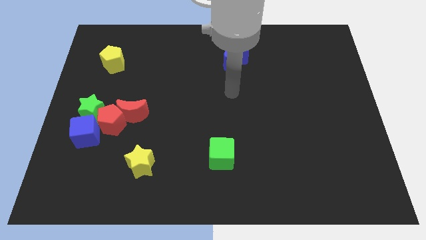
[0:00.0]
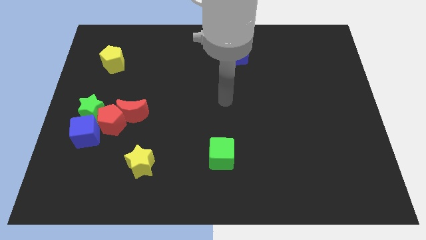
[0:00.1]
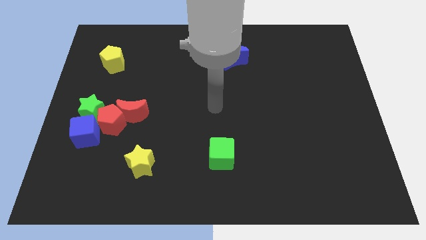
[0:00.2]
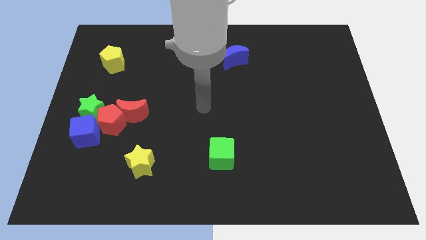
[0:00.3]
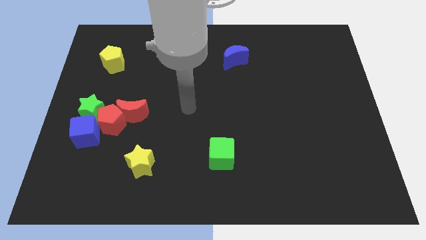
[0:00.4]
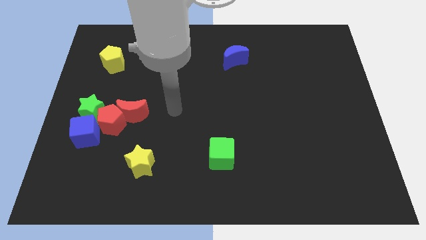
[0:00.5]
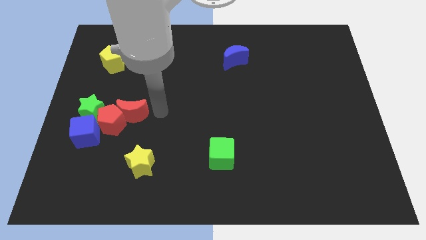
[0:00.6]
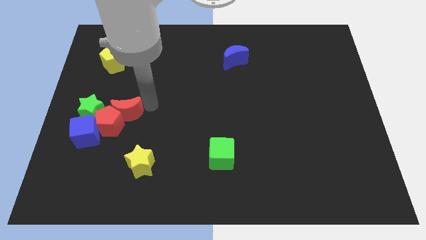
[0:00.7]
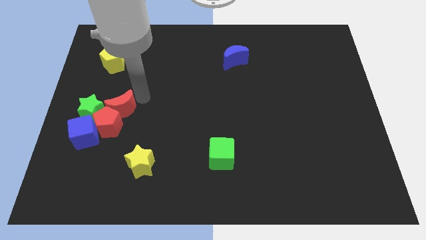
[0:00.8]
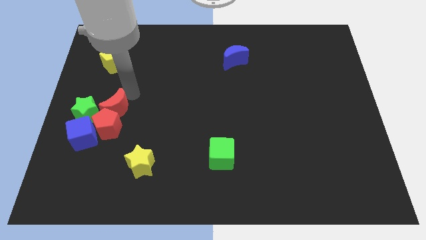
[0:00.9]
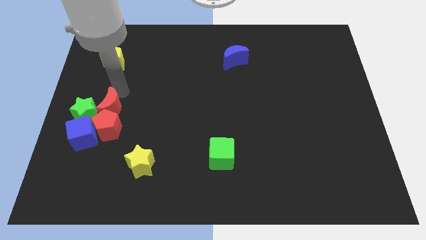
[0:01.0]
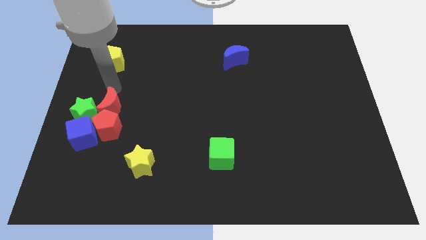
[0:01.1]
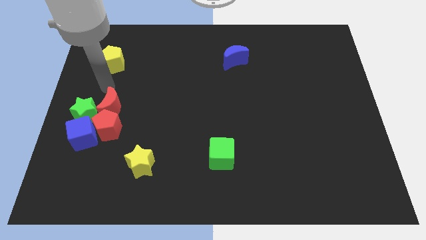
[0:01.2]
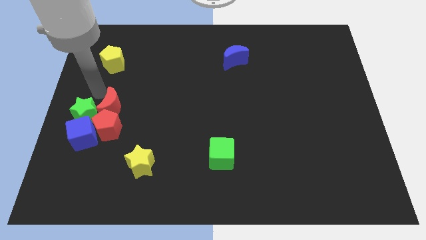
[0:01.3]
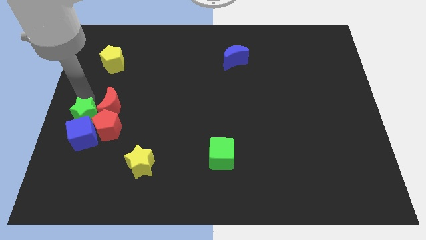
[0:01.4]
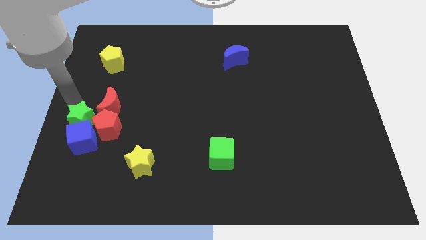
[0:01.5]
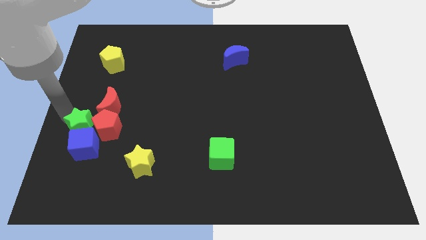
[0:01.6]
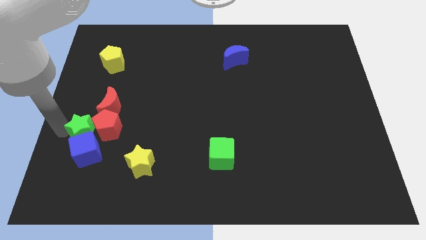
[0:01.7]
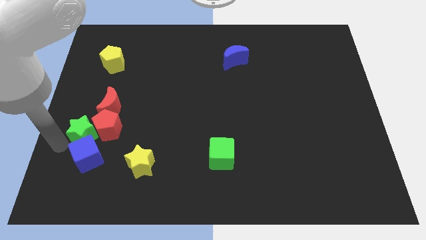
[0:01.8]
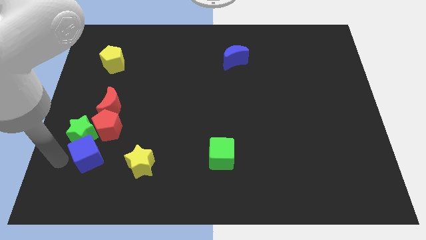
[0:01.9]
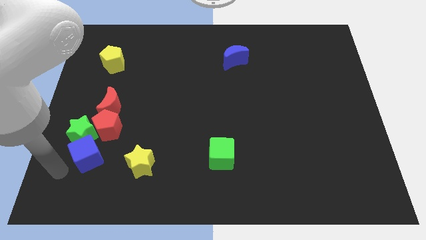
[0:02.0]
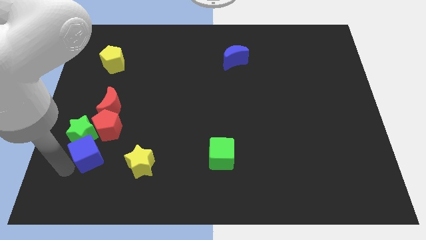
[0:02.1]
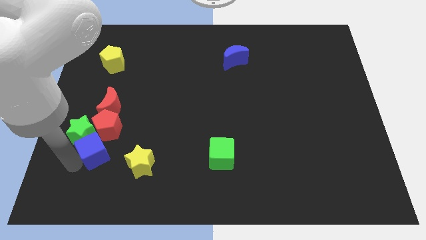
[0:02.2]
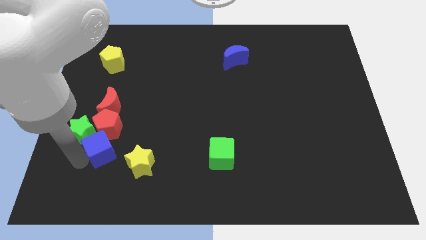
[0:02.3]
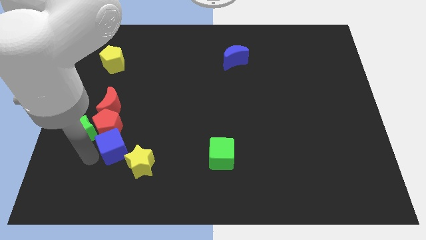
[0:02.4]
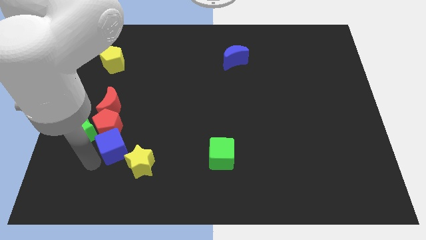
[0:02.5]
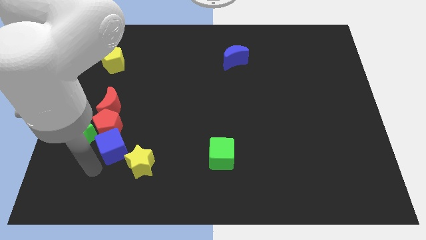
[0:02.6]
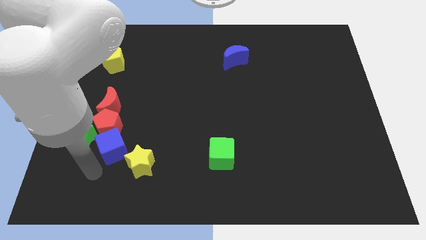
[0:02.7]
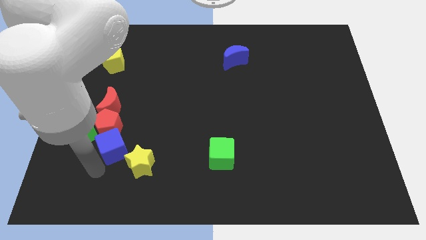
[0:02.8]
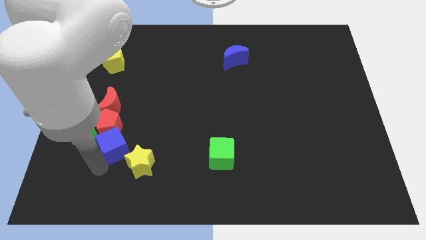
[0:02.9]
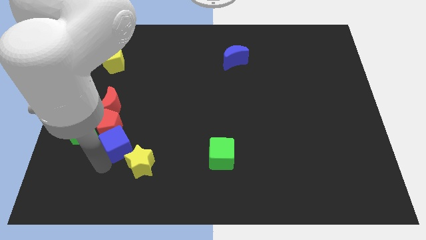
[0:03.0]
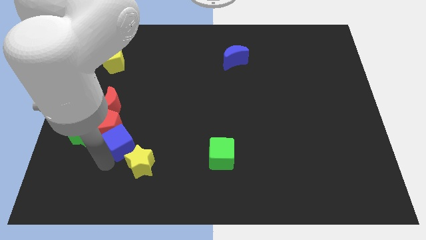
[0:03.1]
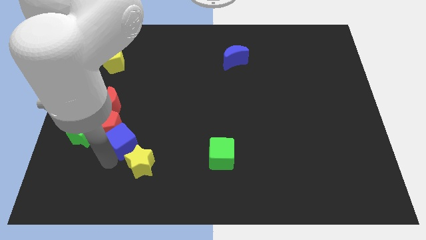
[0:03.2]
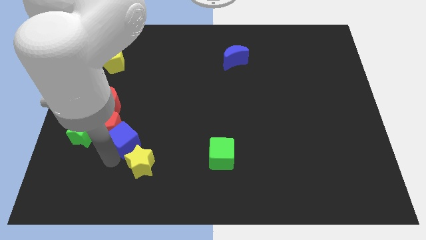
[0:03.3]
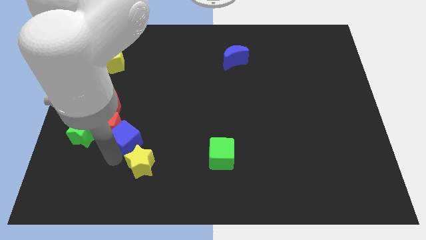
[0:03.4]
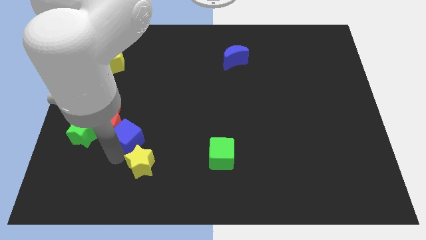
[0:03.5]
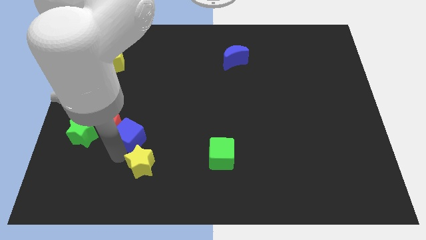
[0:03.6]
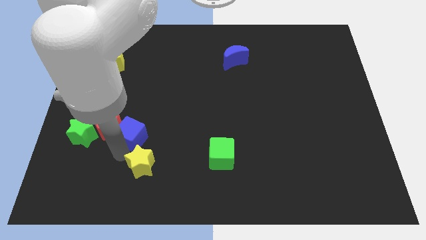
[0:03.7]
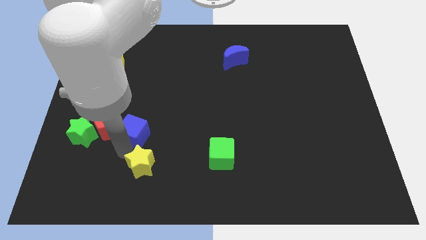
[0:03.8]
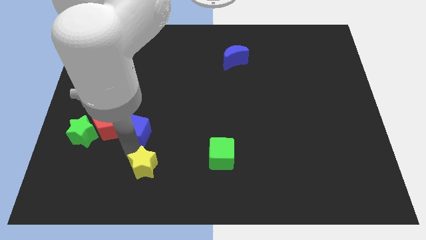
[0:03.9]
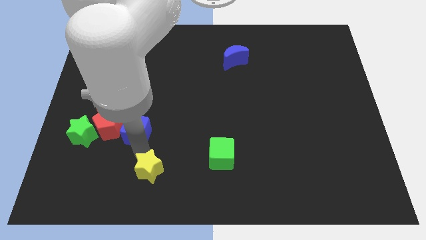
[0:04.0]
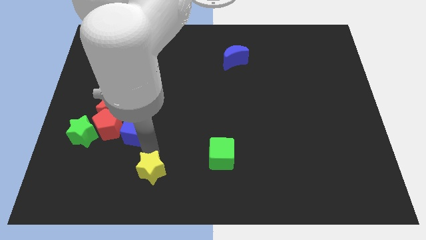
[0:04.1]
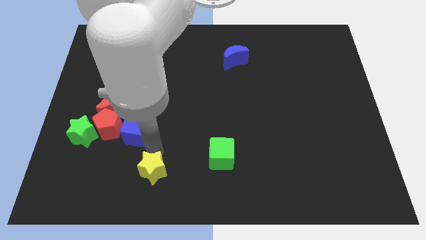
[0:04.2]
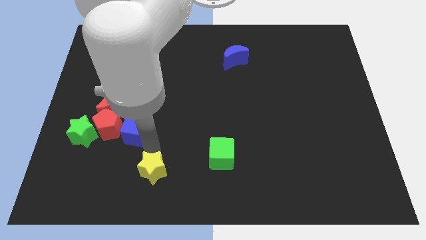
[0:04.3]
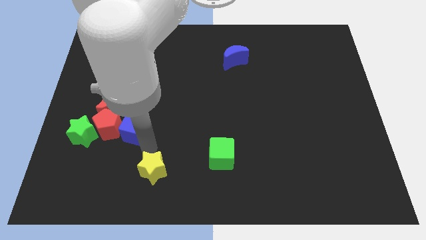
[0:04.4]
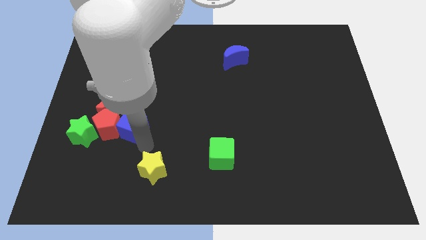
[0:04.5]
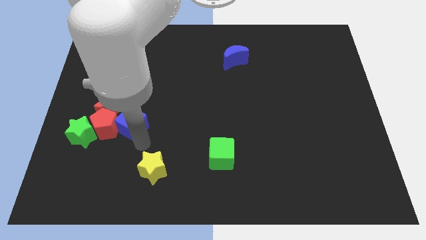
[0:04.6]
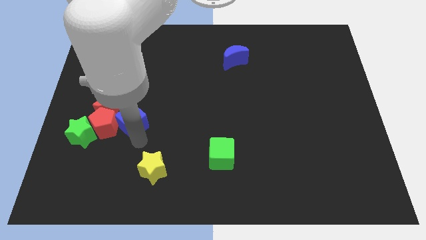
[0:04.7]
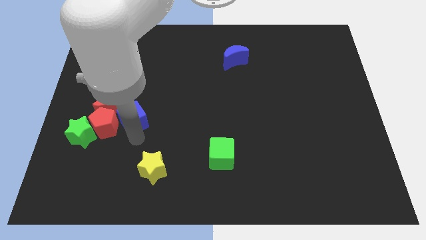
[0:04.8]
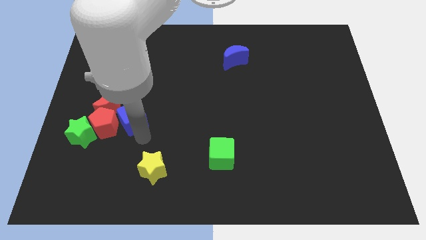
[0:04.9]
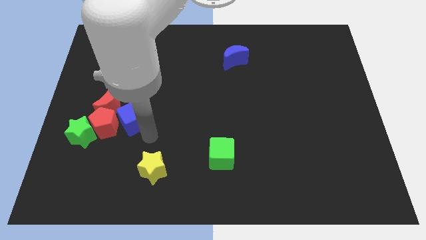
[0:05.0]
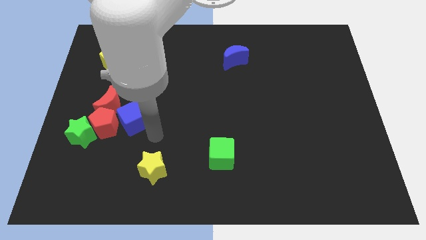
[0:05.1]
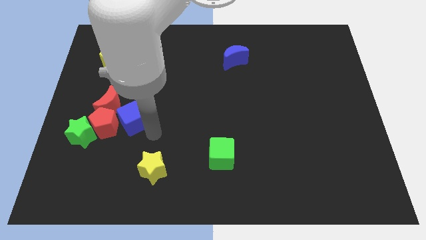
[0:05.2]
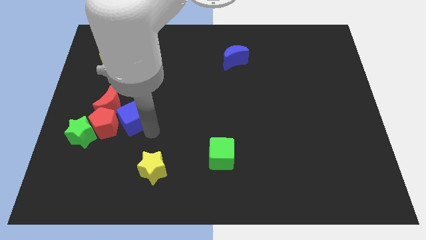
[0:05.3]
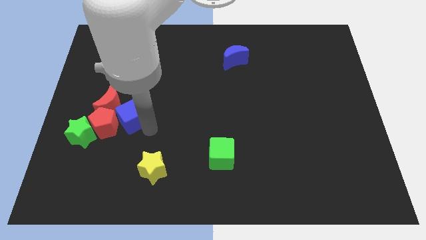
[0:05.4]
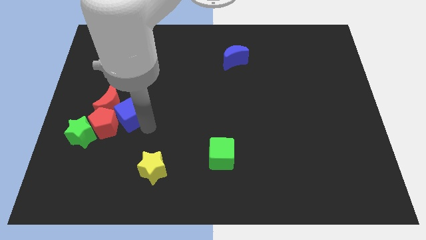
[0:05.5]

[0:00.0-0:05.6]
push the blue cube towards the red moon

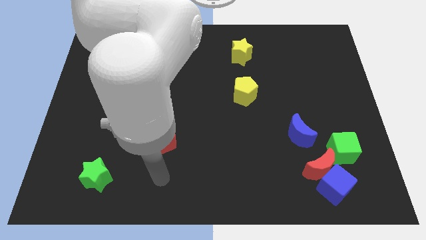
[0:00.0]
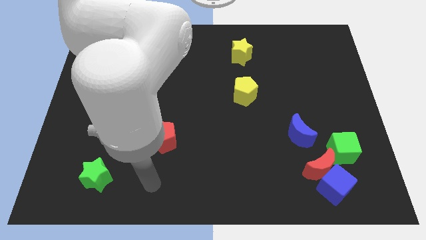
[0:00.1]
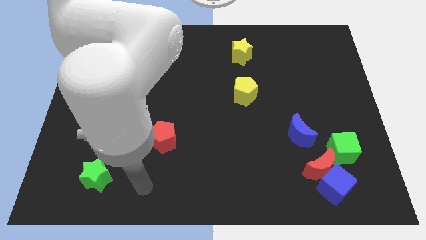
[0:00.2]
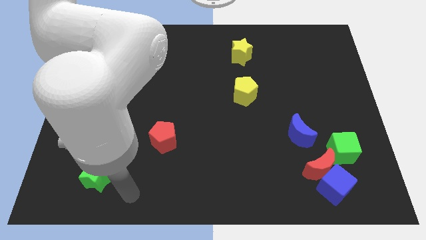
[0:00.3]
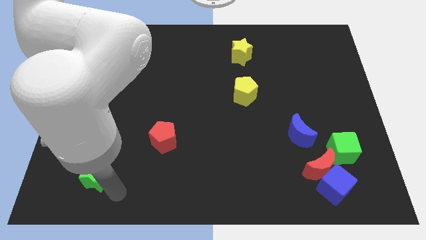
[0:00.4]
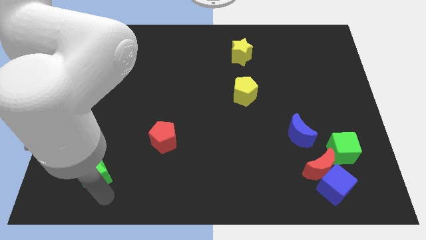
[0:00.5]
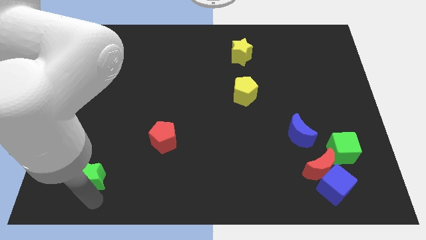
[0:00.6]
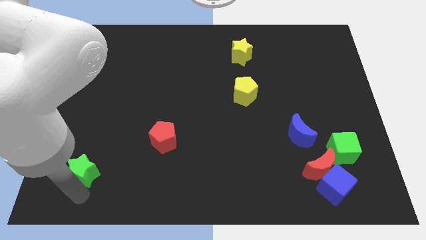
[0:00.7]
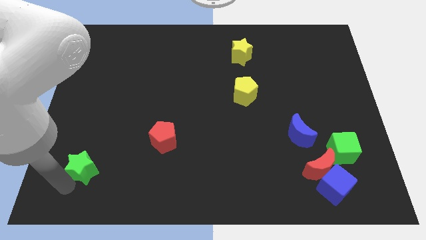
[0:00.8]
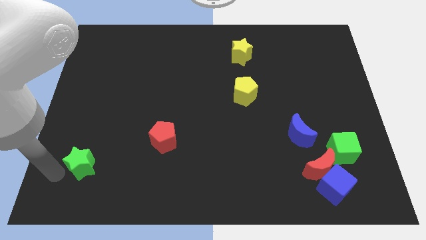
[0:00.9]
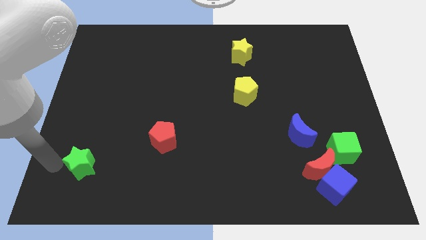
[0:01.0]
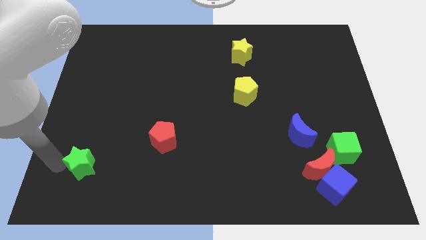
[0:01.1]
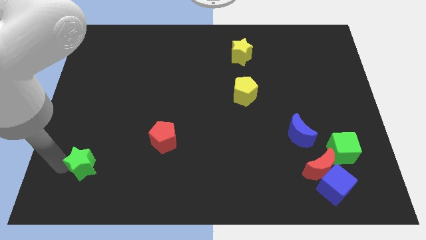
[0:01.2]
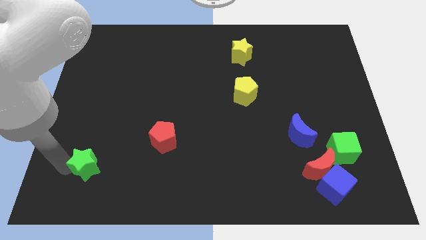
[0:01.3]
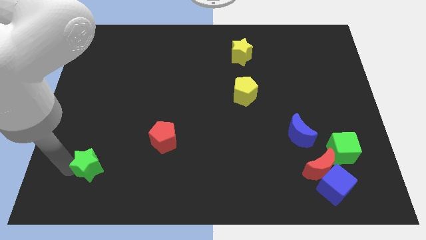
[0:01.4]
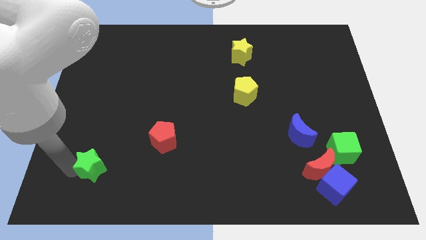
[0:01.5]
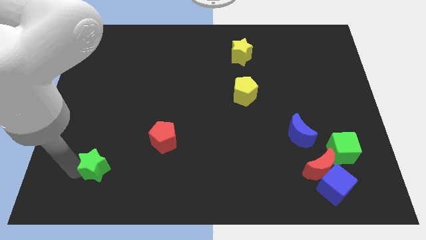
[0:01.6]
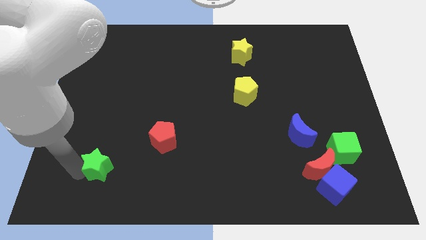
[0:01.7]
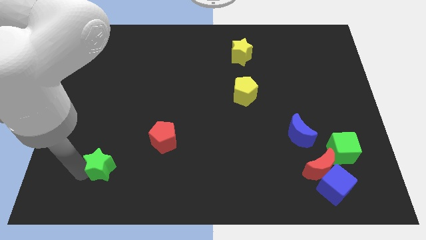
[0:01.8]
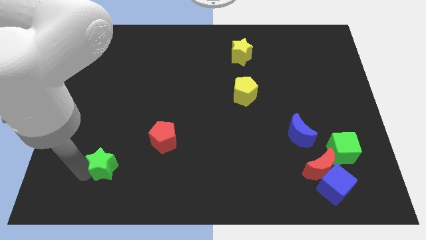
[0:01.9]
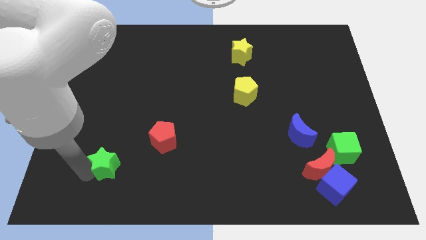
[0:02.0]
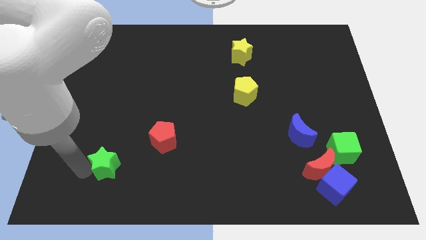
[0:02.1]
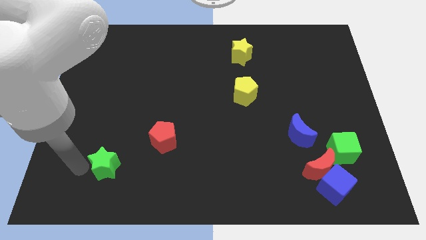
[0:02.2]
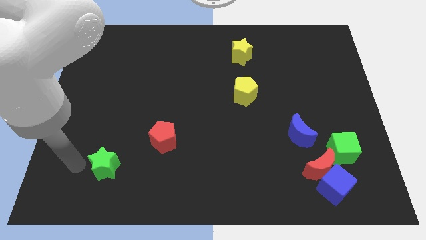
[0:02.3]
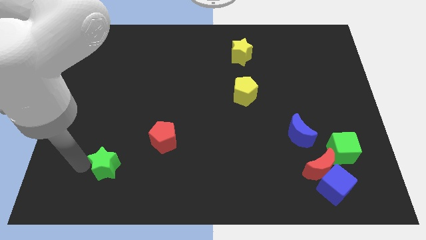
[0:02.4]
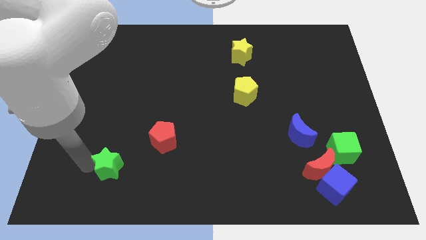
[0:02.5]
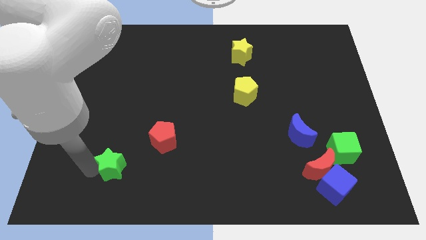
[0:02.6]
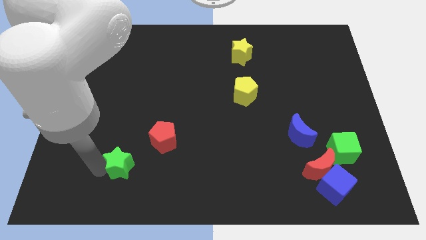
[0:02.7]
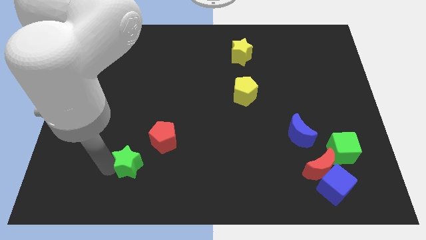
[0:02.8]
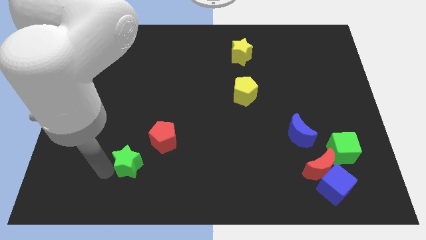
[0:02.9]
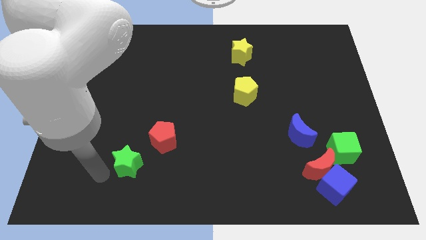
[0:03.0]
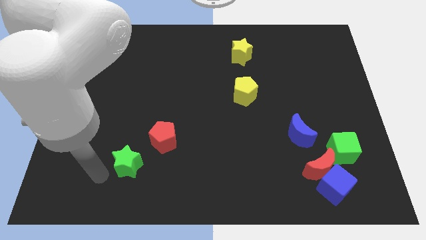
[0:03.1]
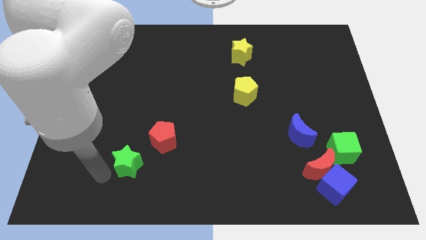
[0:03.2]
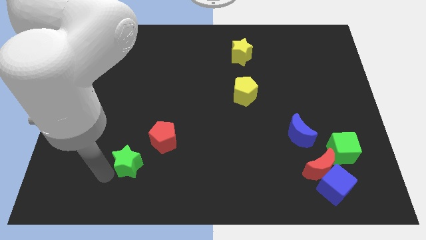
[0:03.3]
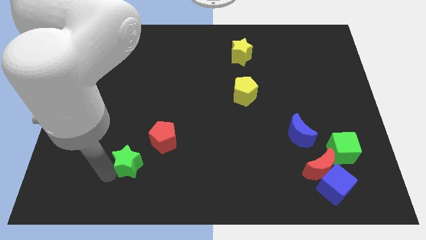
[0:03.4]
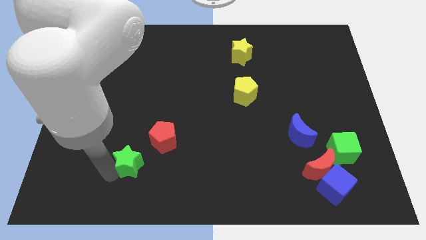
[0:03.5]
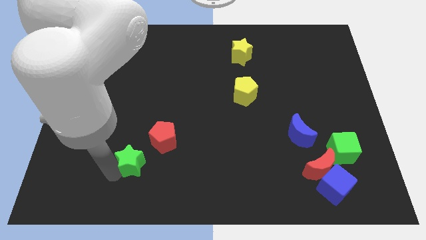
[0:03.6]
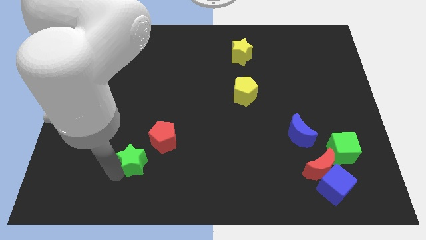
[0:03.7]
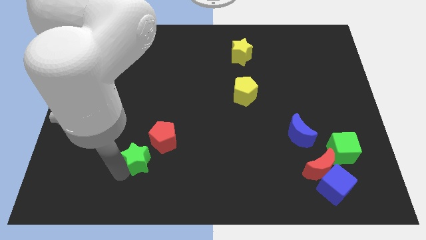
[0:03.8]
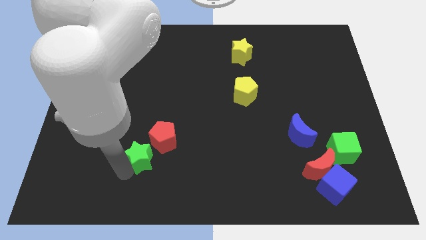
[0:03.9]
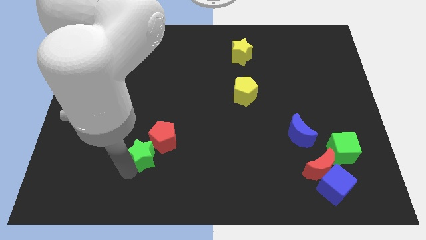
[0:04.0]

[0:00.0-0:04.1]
move the green star towards the red pentagon
